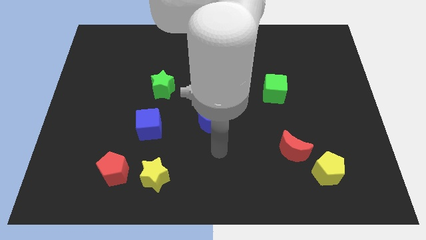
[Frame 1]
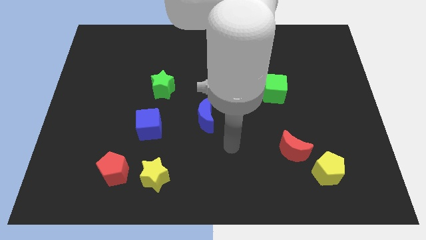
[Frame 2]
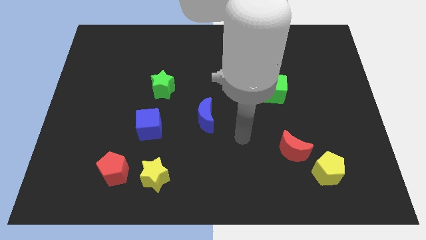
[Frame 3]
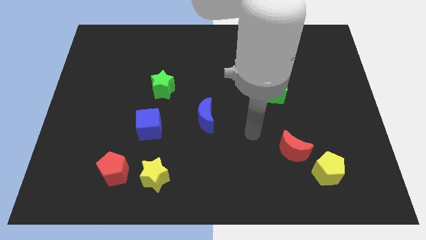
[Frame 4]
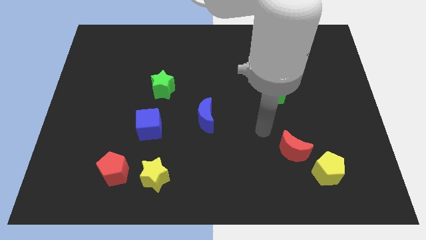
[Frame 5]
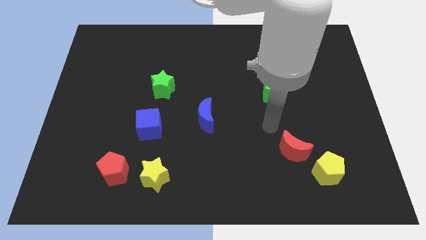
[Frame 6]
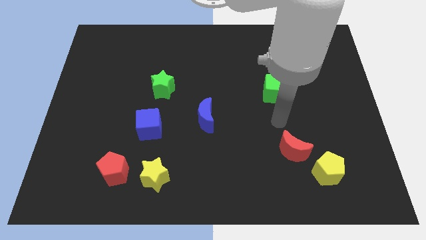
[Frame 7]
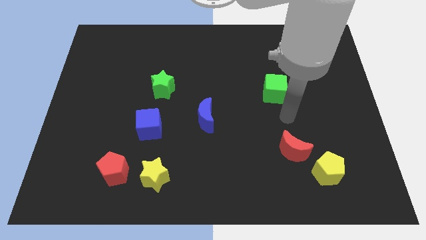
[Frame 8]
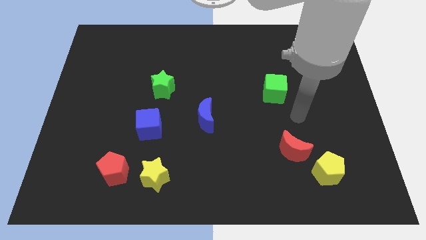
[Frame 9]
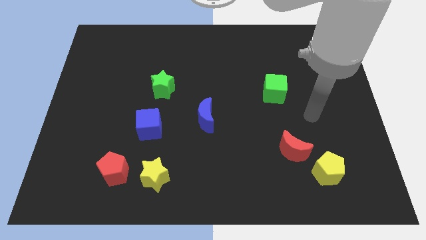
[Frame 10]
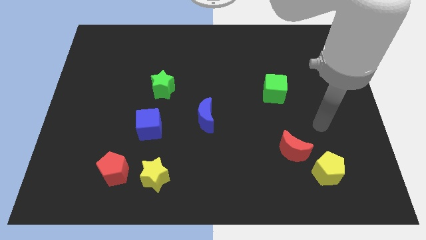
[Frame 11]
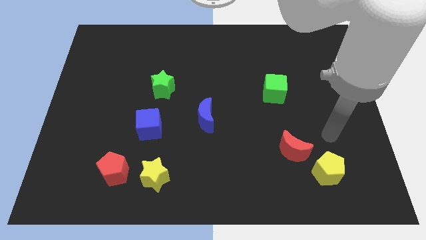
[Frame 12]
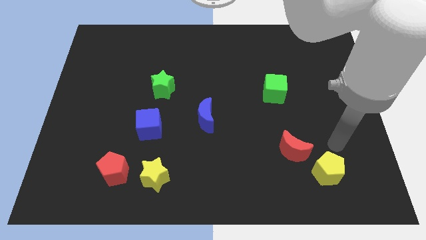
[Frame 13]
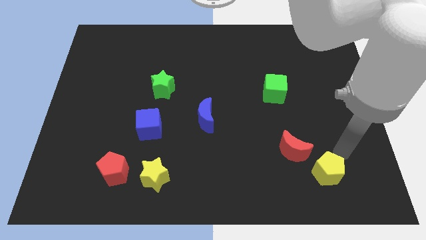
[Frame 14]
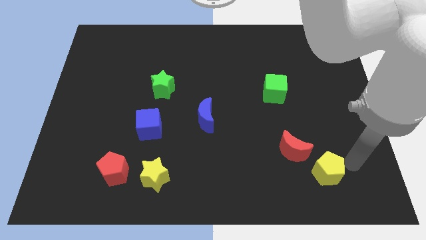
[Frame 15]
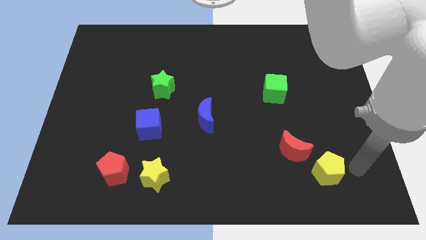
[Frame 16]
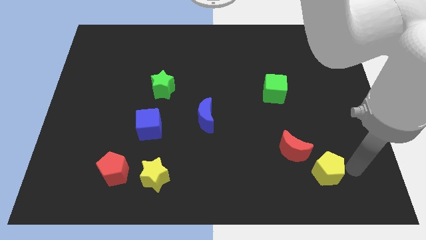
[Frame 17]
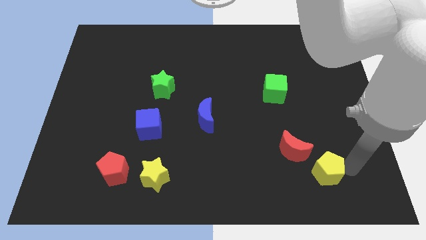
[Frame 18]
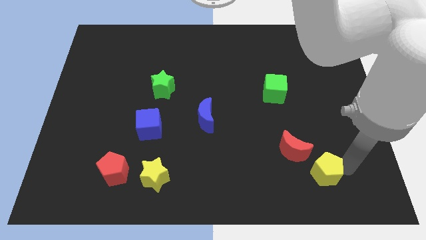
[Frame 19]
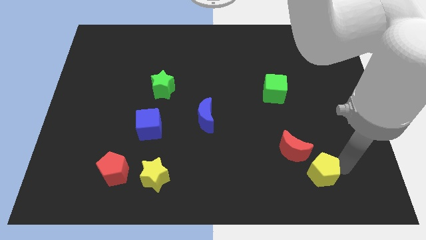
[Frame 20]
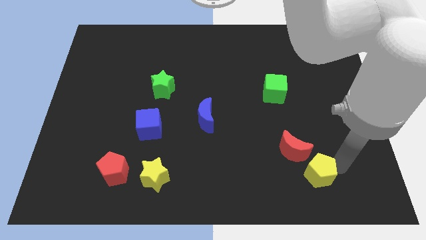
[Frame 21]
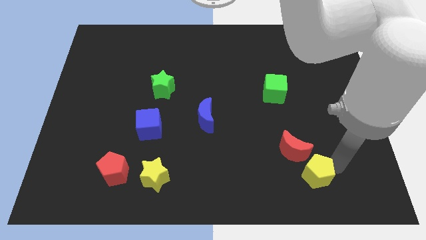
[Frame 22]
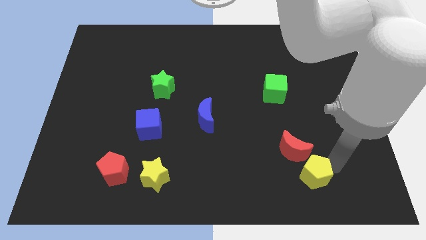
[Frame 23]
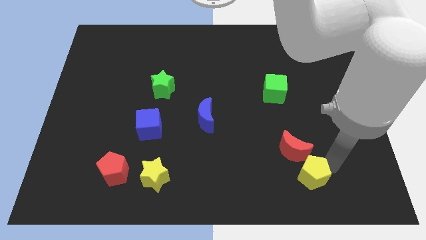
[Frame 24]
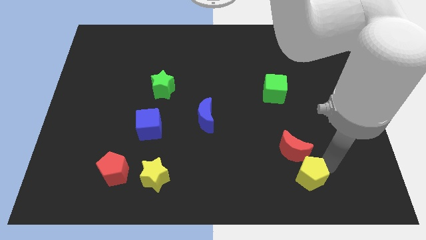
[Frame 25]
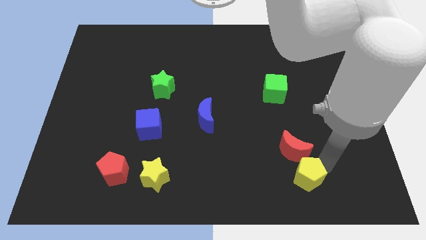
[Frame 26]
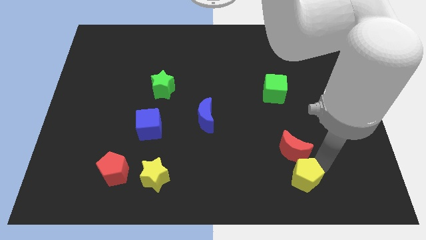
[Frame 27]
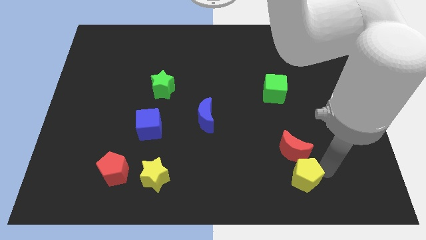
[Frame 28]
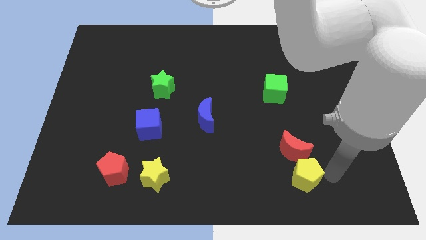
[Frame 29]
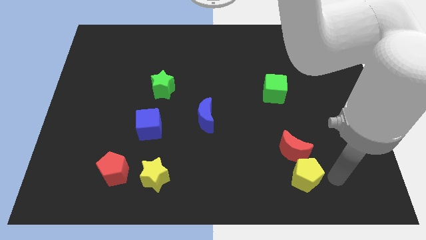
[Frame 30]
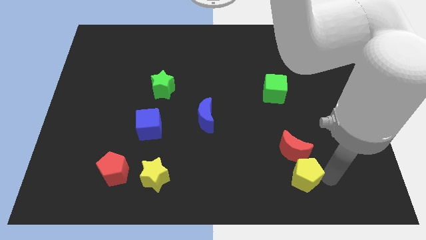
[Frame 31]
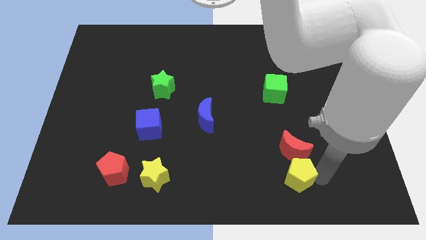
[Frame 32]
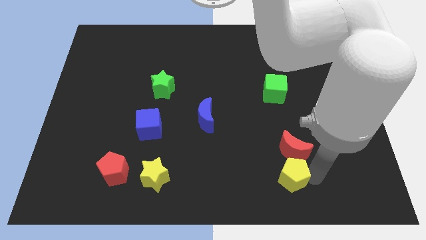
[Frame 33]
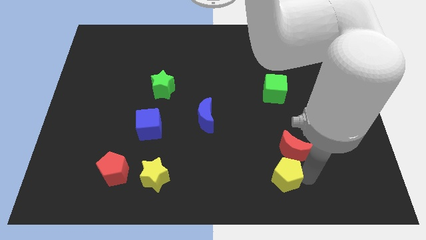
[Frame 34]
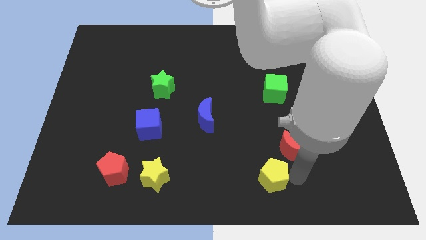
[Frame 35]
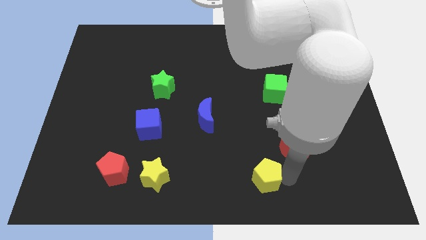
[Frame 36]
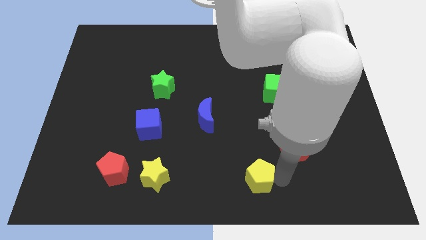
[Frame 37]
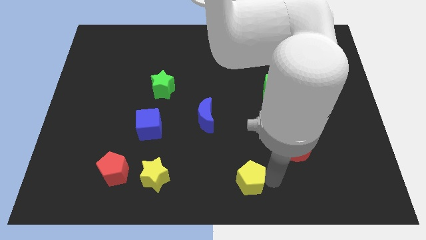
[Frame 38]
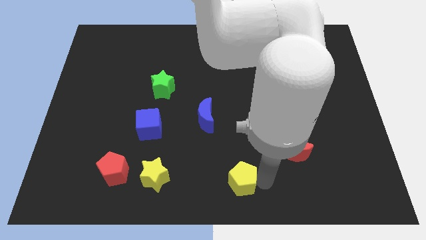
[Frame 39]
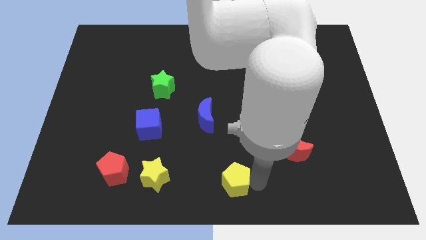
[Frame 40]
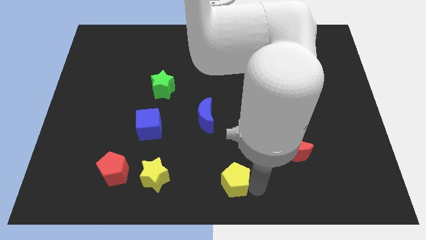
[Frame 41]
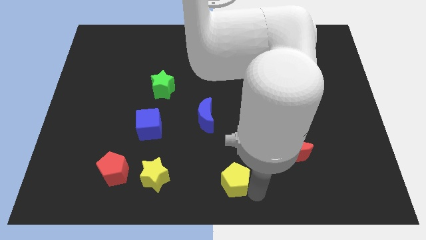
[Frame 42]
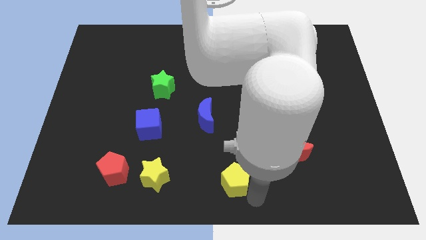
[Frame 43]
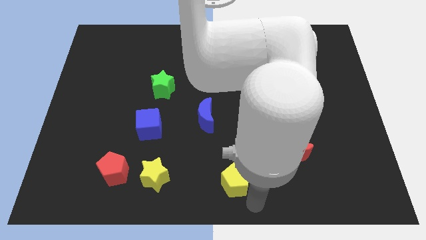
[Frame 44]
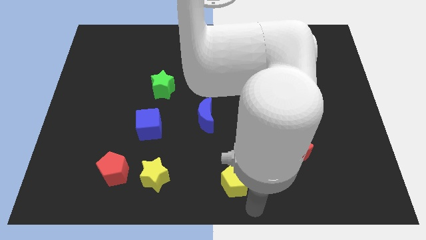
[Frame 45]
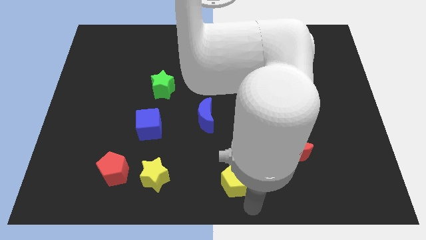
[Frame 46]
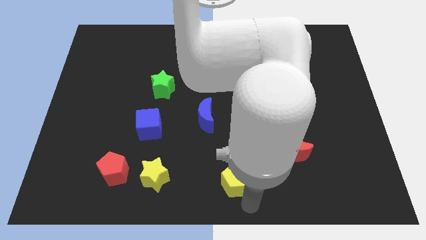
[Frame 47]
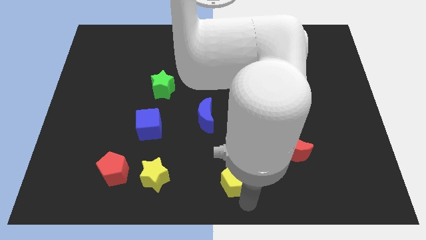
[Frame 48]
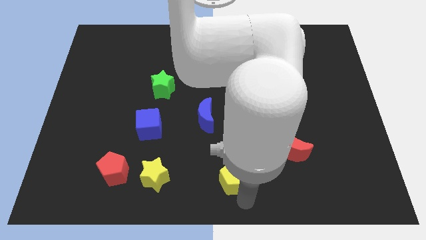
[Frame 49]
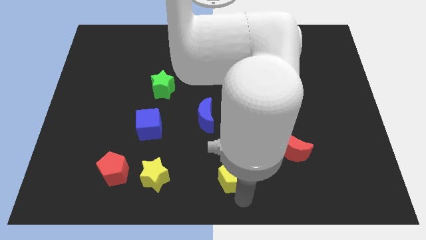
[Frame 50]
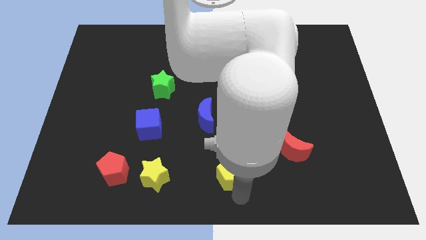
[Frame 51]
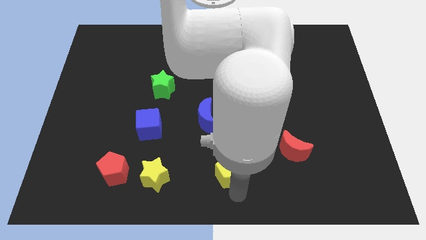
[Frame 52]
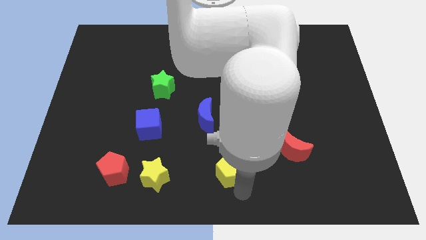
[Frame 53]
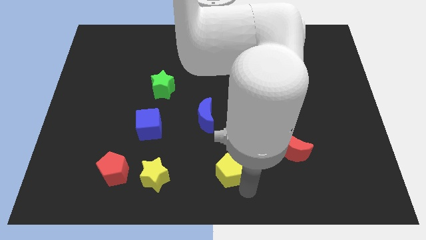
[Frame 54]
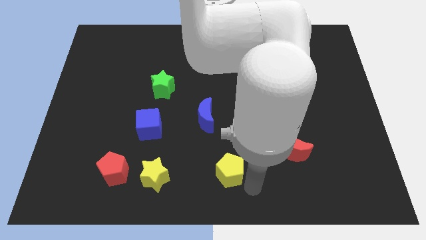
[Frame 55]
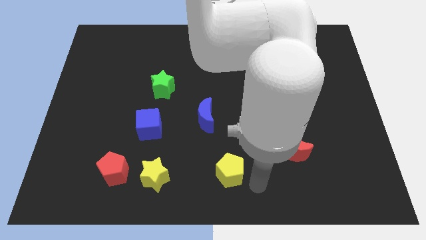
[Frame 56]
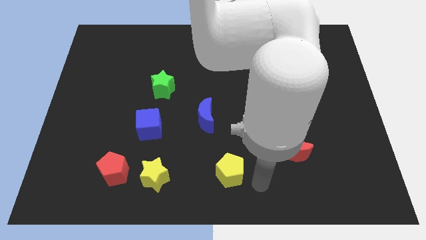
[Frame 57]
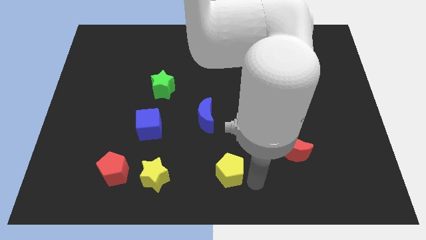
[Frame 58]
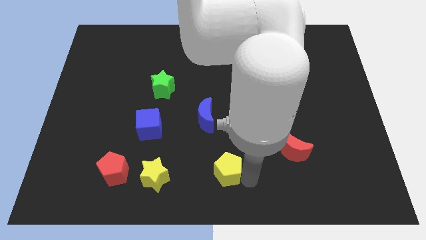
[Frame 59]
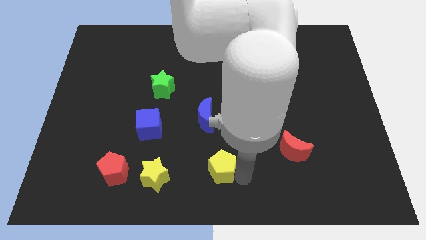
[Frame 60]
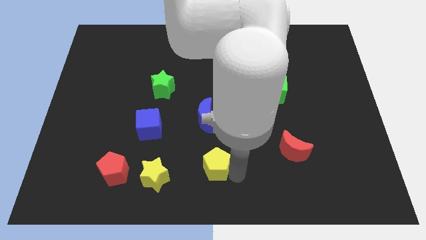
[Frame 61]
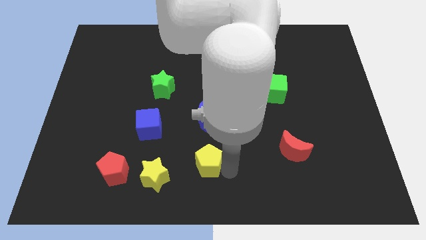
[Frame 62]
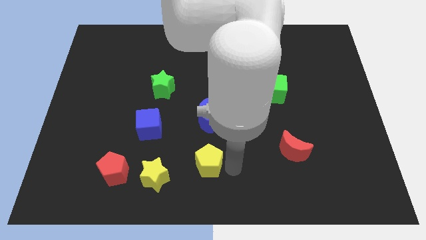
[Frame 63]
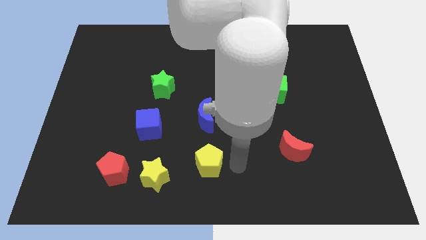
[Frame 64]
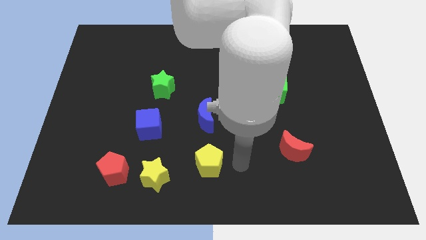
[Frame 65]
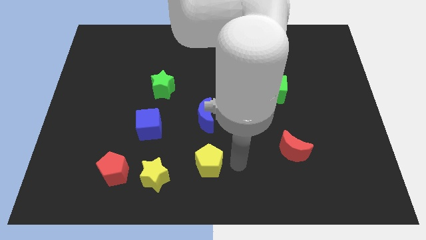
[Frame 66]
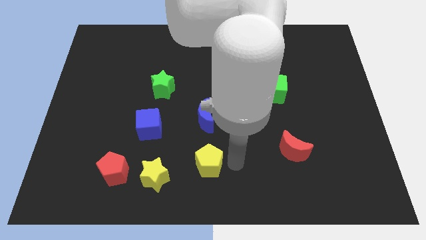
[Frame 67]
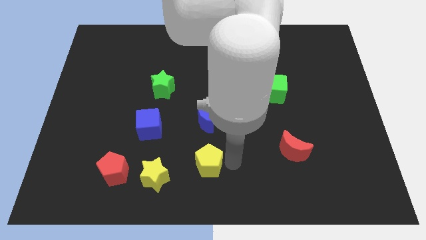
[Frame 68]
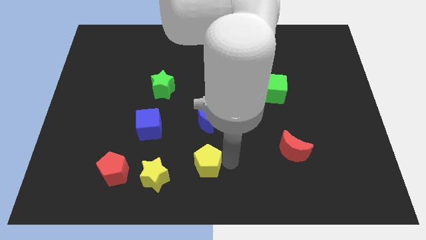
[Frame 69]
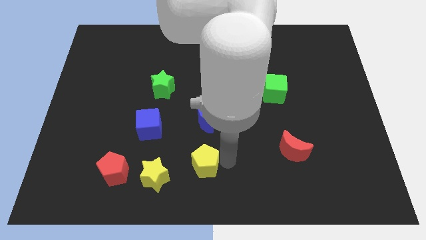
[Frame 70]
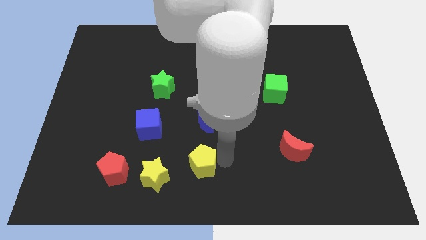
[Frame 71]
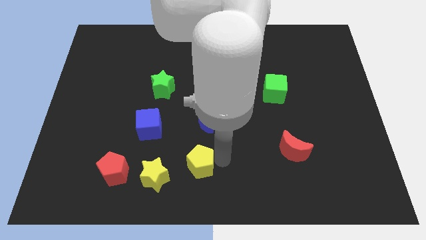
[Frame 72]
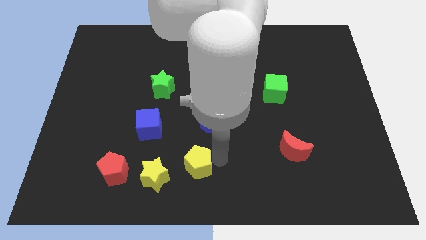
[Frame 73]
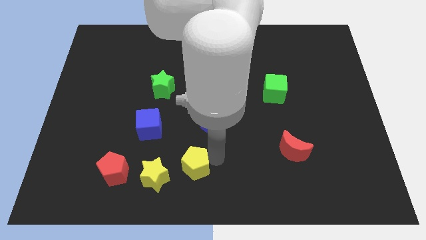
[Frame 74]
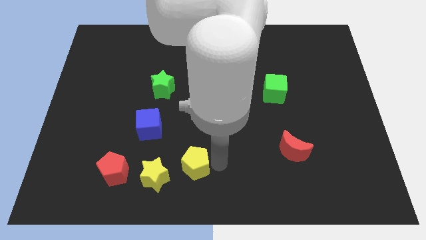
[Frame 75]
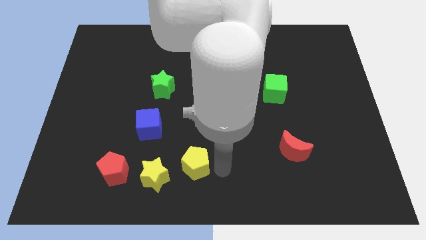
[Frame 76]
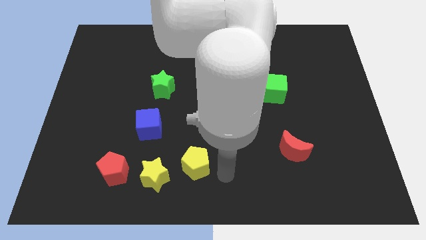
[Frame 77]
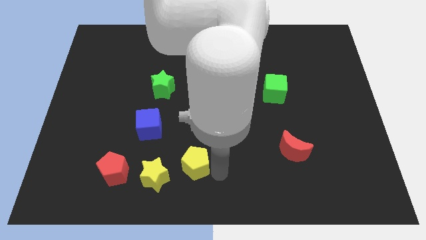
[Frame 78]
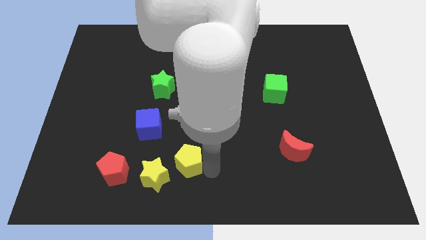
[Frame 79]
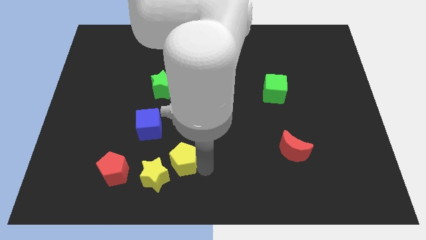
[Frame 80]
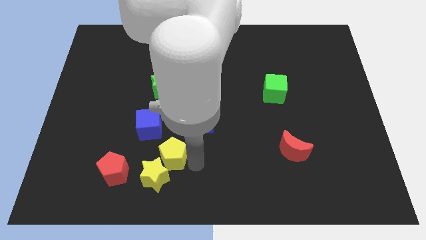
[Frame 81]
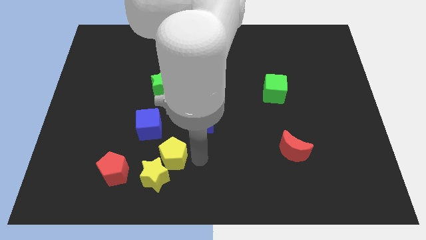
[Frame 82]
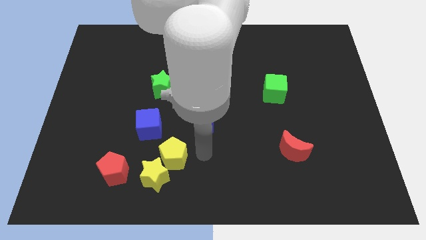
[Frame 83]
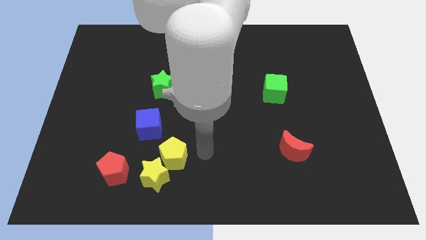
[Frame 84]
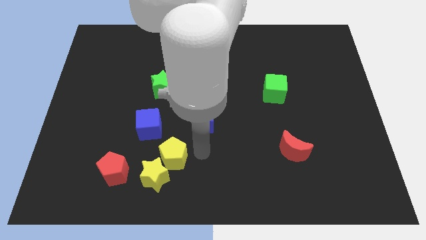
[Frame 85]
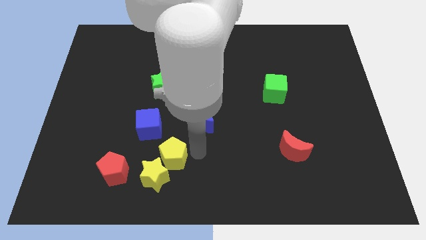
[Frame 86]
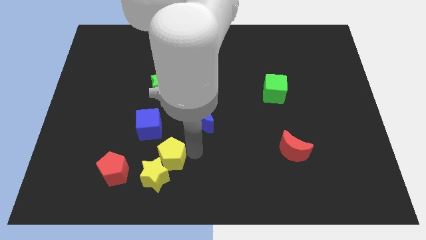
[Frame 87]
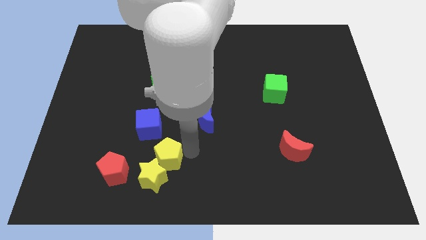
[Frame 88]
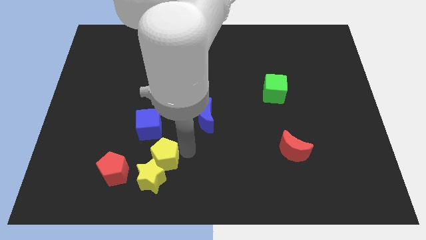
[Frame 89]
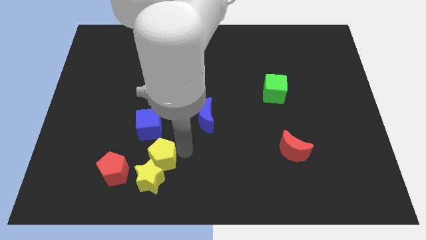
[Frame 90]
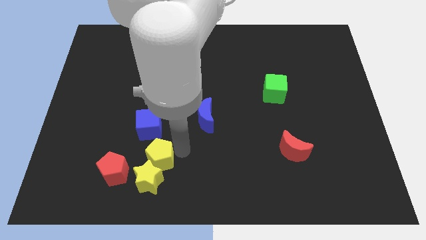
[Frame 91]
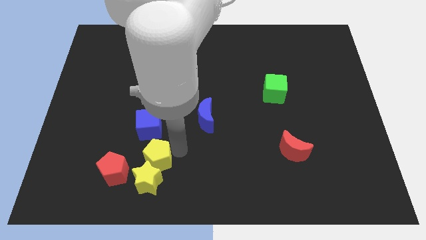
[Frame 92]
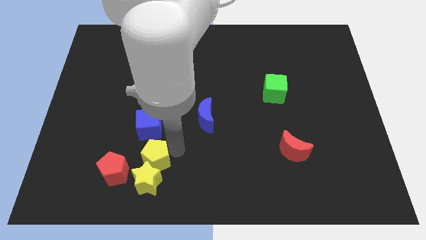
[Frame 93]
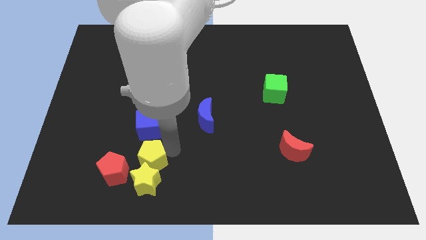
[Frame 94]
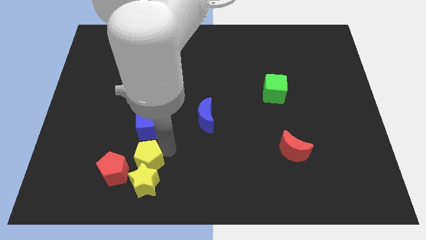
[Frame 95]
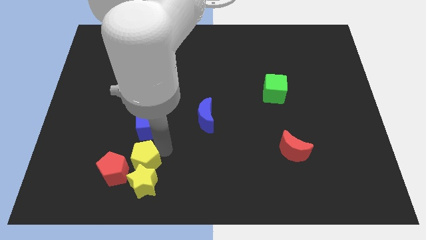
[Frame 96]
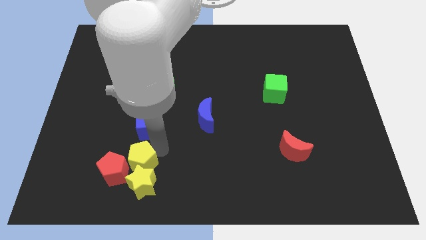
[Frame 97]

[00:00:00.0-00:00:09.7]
push the yellow pentagon towards the red pentagon
